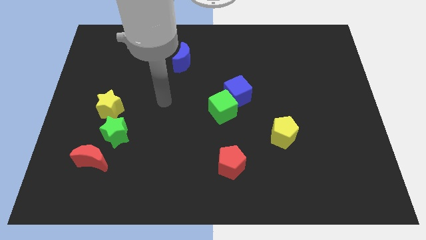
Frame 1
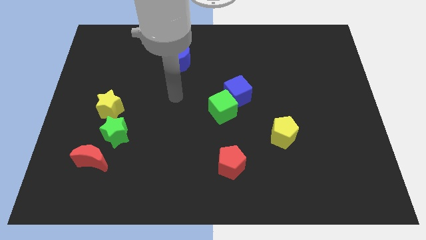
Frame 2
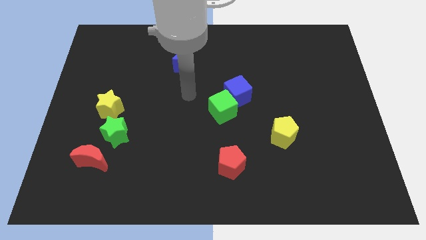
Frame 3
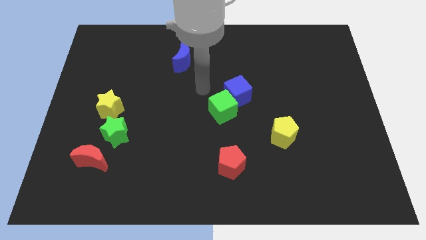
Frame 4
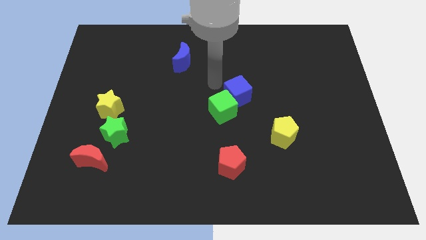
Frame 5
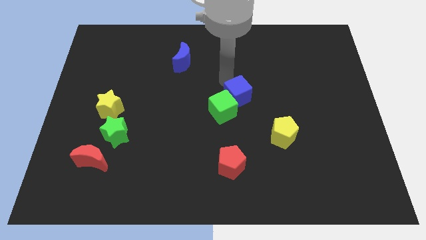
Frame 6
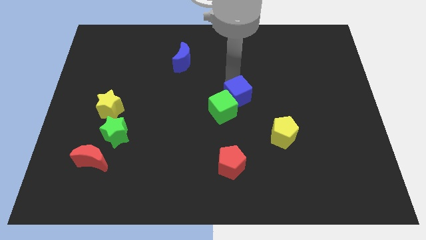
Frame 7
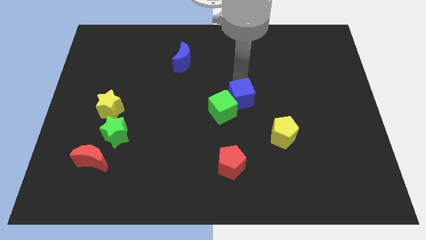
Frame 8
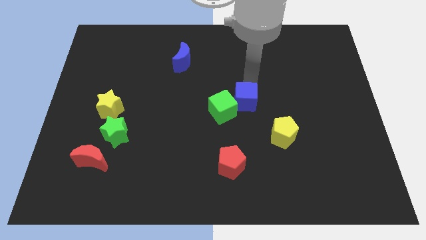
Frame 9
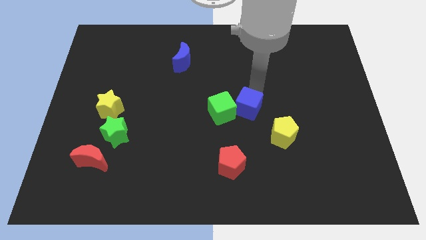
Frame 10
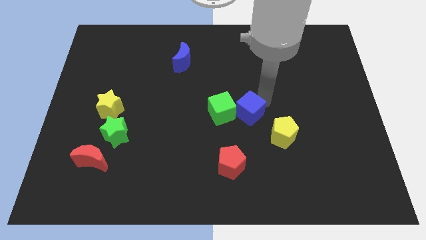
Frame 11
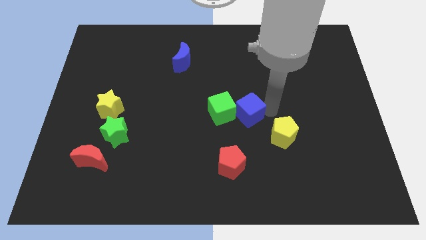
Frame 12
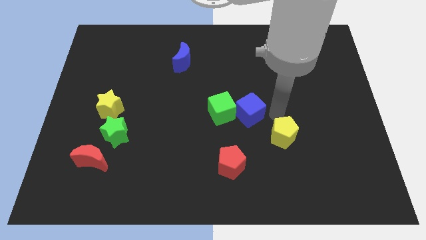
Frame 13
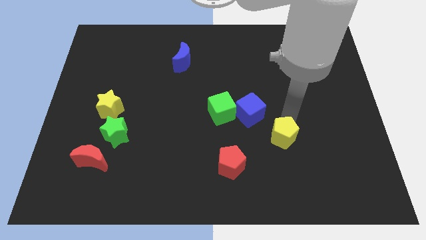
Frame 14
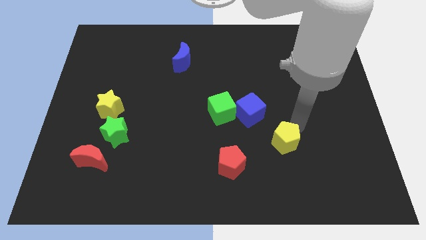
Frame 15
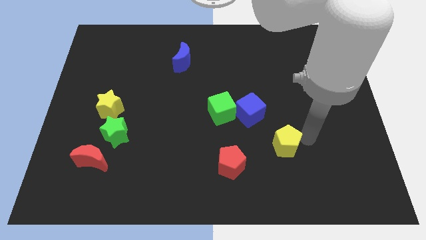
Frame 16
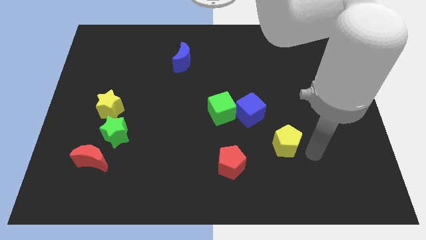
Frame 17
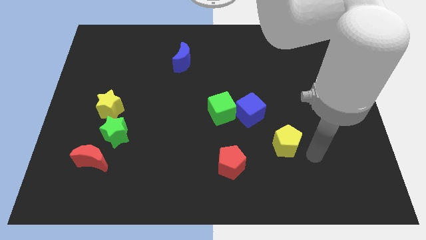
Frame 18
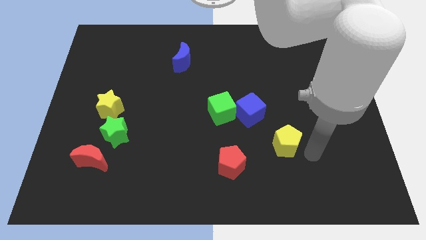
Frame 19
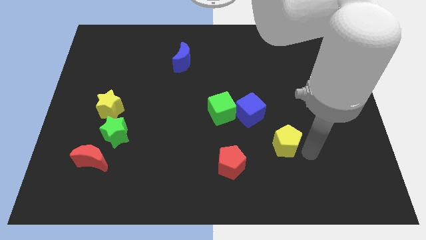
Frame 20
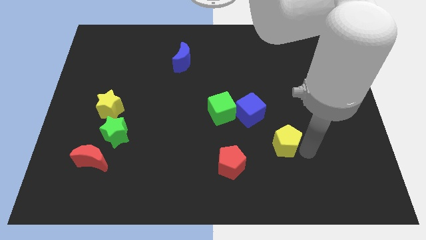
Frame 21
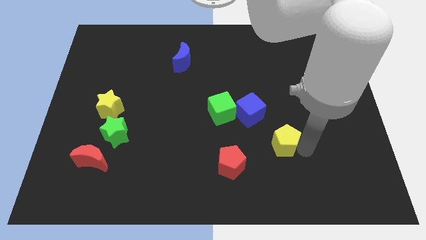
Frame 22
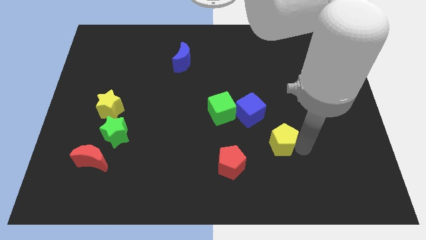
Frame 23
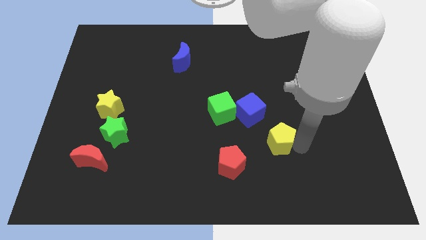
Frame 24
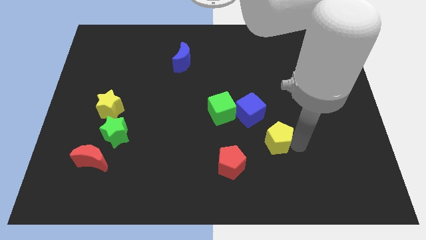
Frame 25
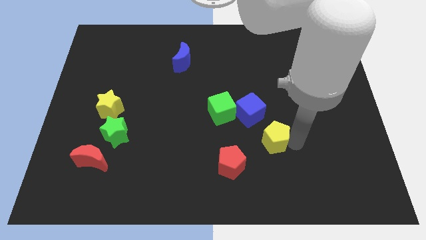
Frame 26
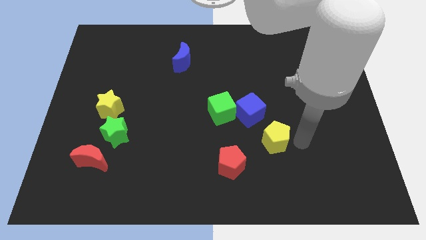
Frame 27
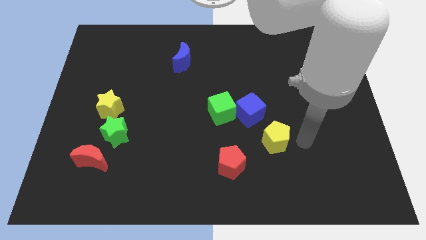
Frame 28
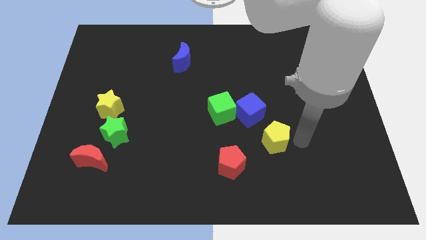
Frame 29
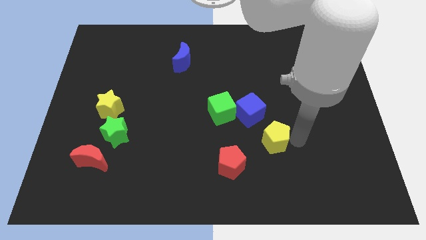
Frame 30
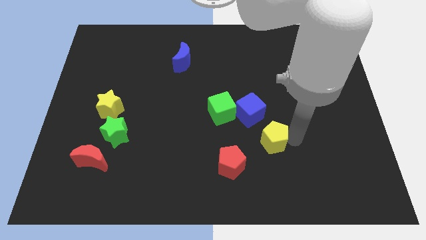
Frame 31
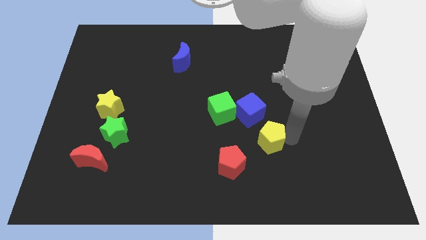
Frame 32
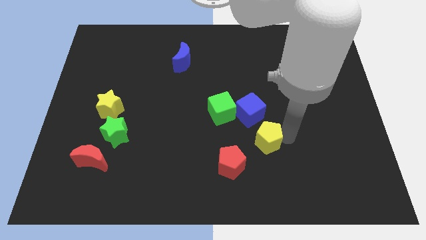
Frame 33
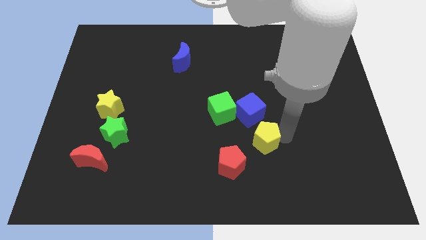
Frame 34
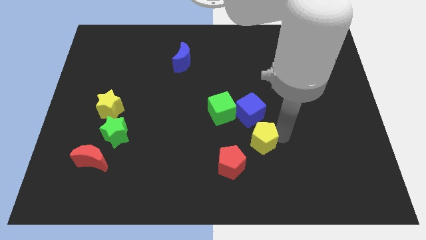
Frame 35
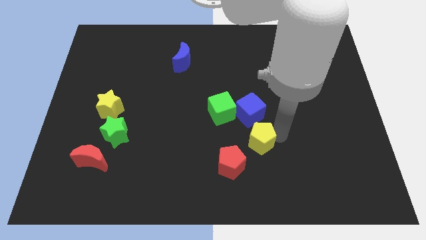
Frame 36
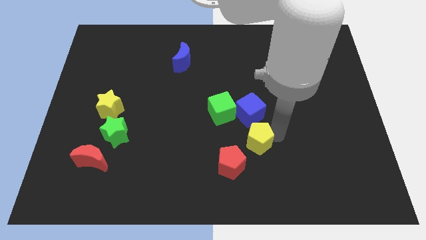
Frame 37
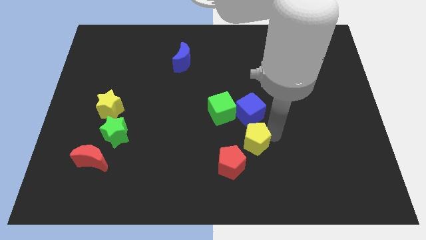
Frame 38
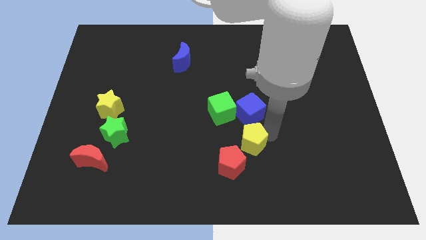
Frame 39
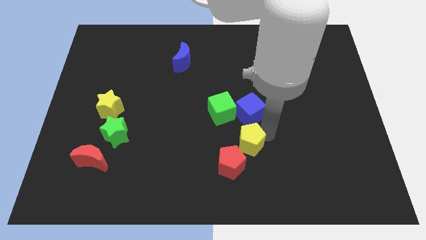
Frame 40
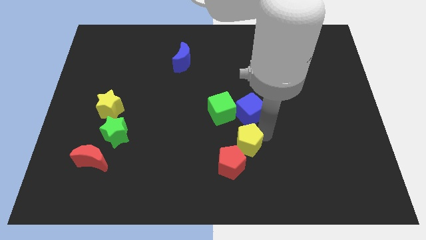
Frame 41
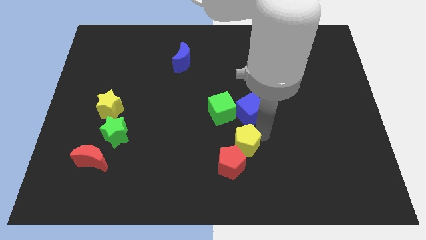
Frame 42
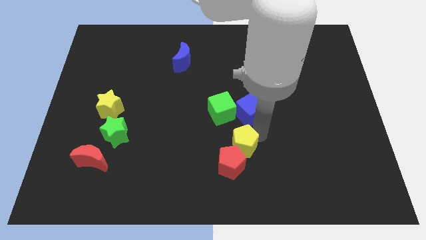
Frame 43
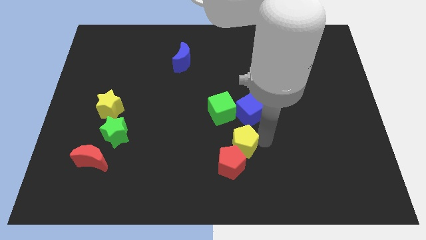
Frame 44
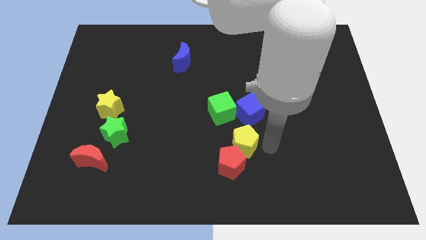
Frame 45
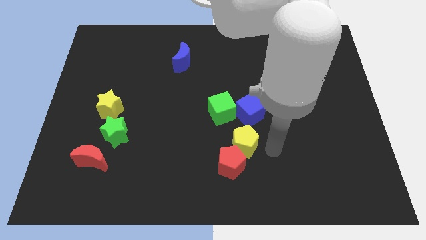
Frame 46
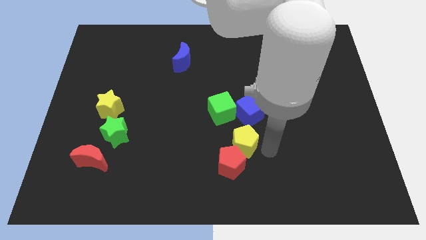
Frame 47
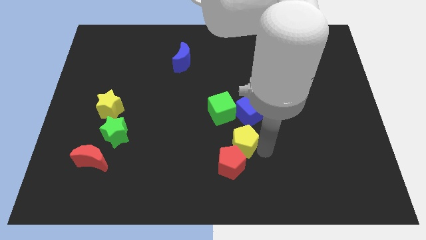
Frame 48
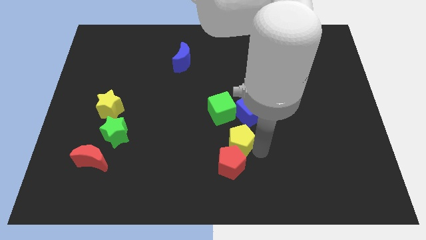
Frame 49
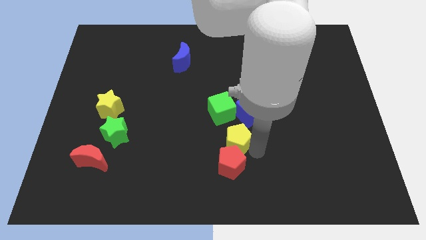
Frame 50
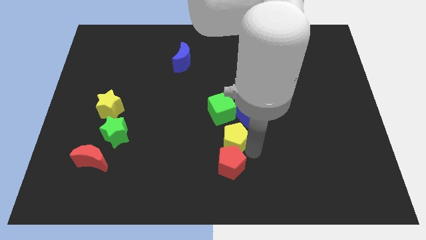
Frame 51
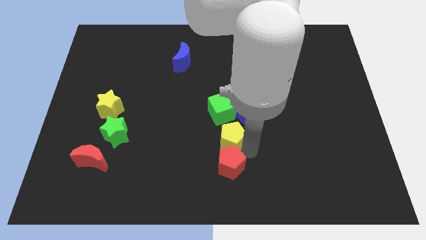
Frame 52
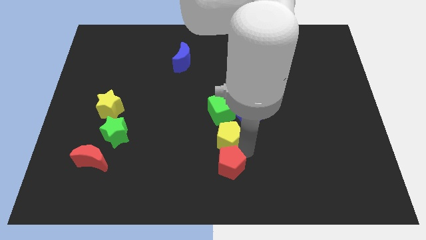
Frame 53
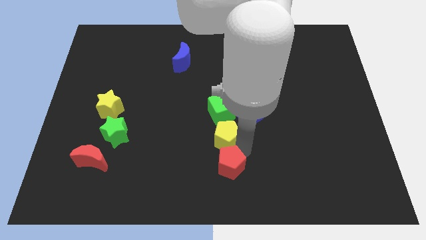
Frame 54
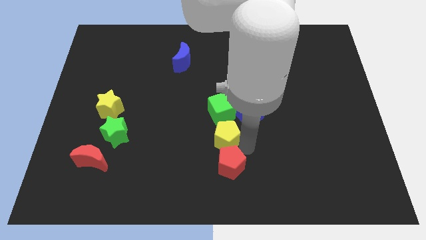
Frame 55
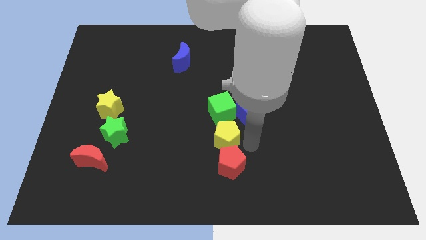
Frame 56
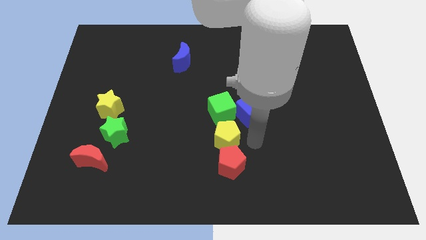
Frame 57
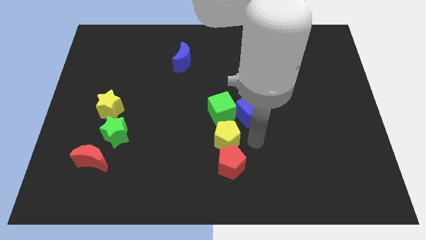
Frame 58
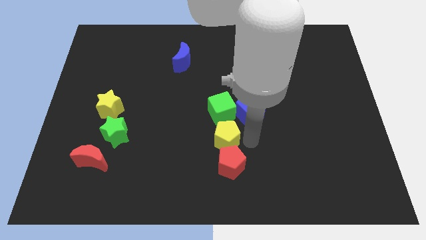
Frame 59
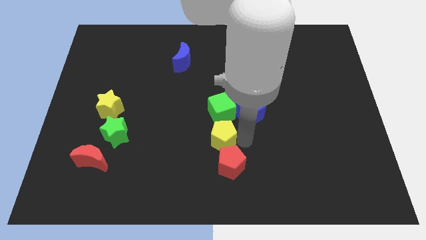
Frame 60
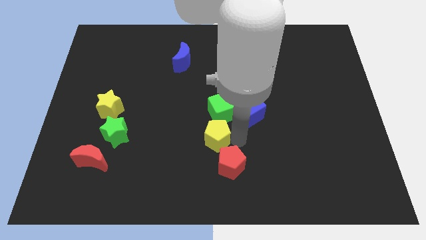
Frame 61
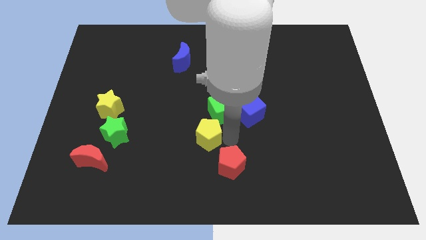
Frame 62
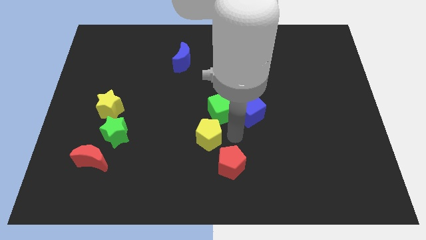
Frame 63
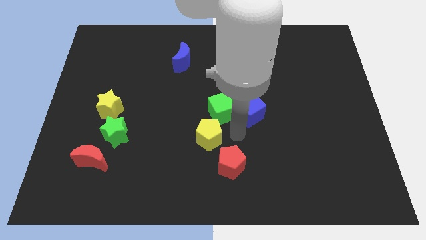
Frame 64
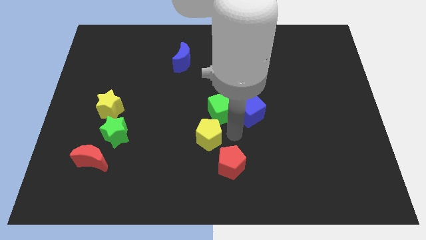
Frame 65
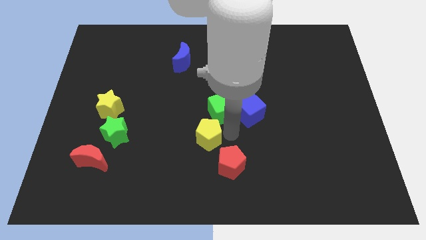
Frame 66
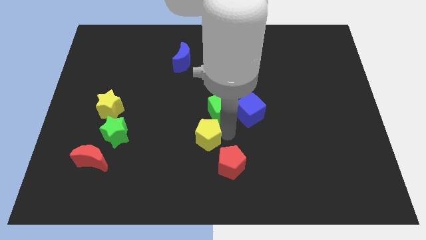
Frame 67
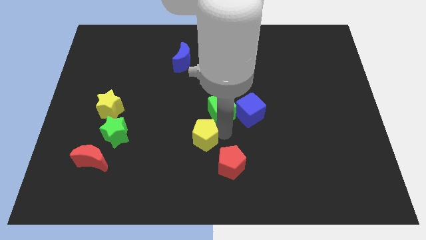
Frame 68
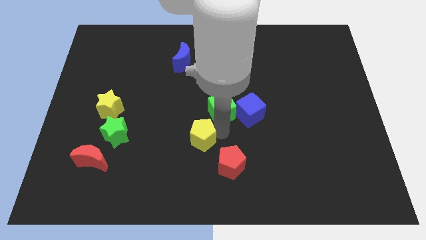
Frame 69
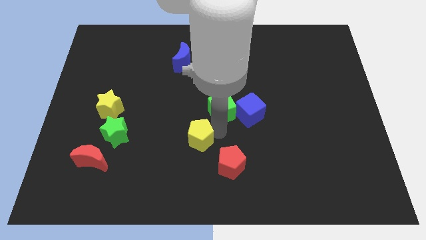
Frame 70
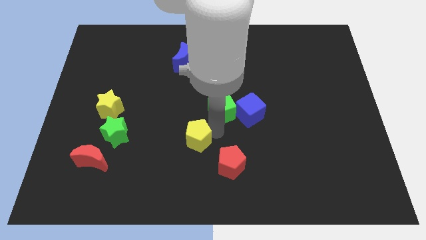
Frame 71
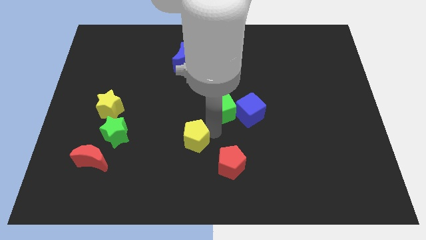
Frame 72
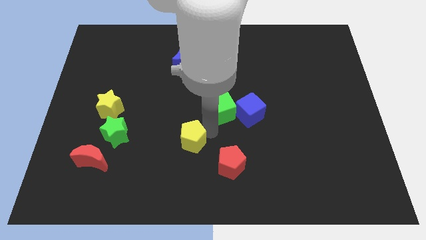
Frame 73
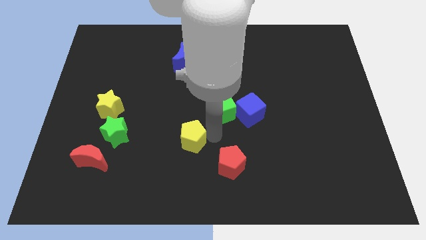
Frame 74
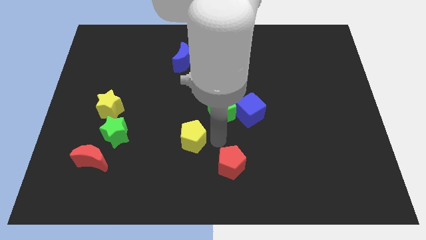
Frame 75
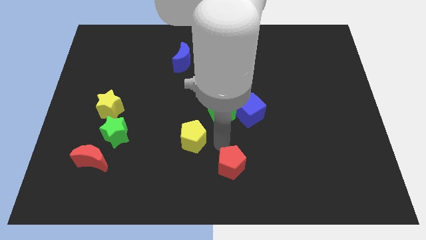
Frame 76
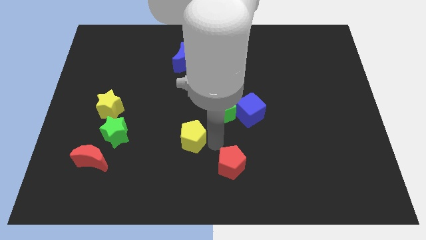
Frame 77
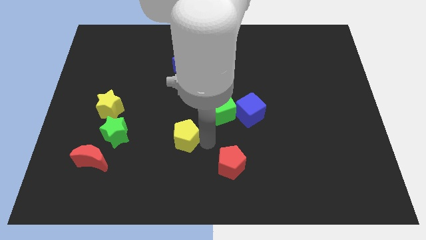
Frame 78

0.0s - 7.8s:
put the yellow pentagon to the right side of the green star
